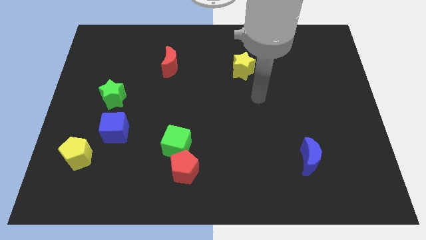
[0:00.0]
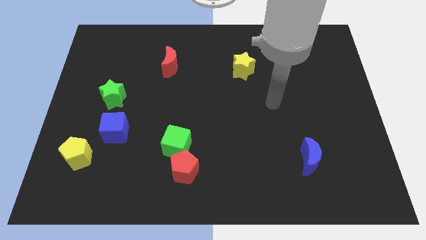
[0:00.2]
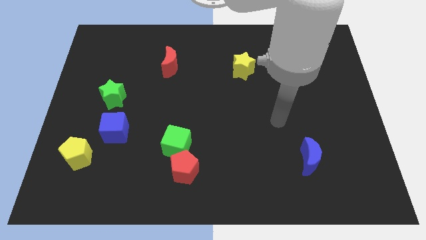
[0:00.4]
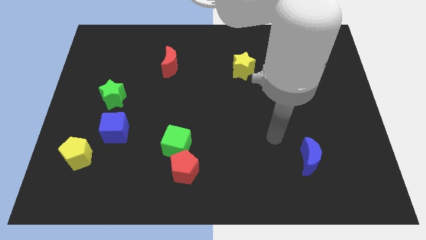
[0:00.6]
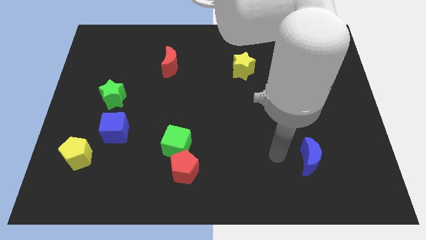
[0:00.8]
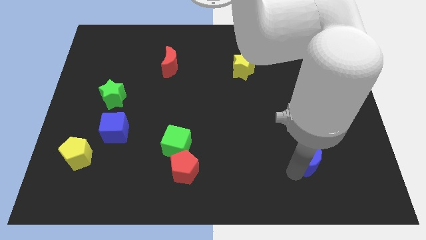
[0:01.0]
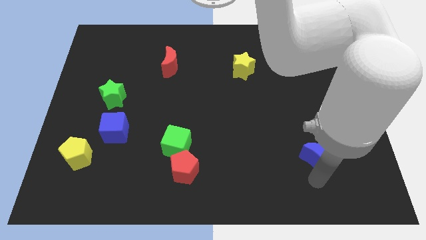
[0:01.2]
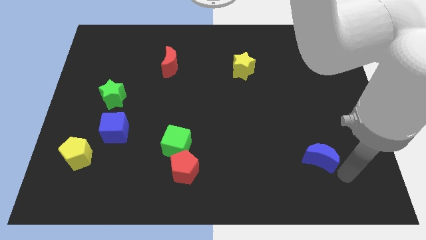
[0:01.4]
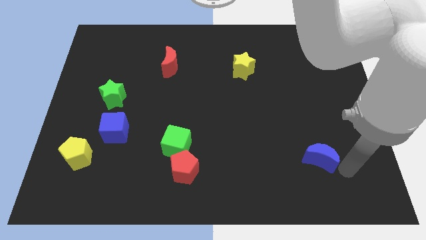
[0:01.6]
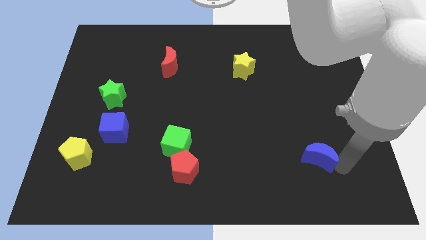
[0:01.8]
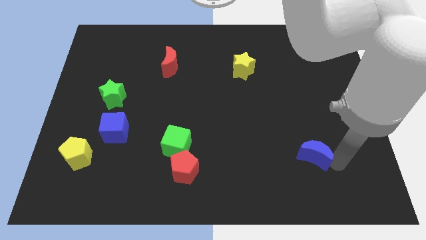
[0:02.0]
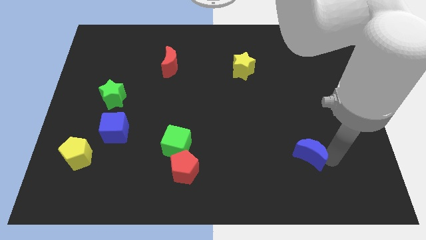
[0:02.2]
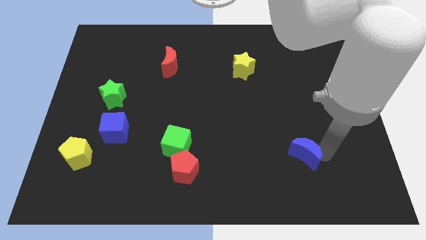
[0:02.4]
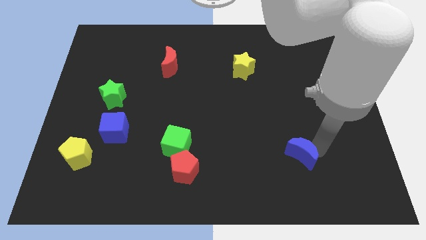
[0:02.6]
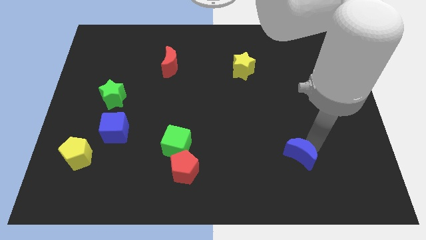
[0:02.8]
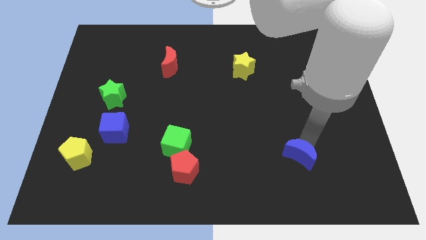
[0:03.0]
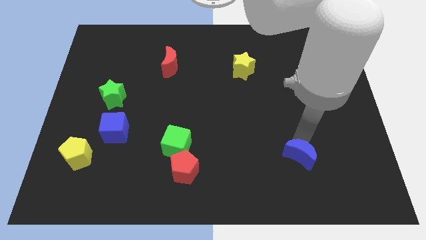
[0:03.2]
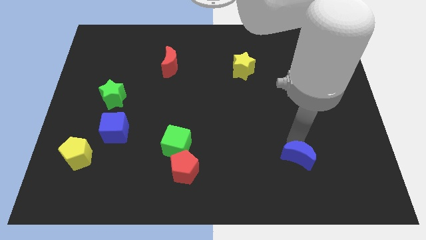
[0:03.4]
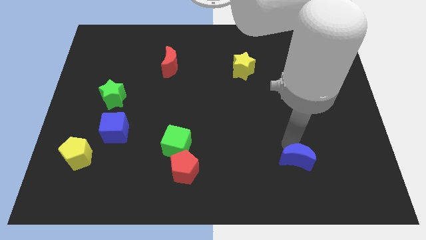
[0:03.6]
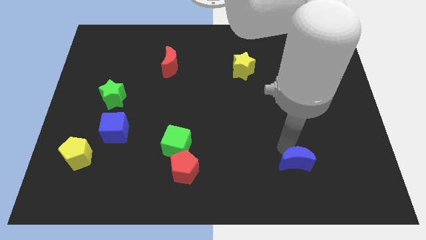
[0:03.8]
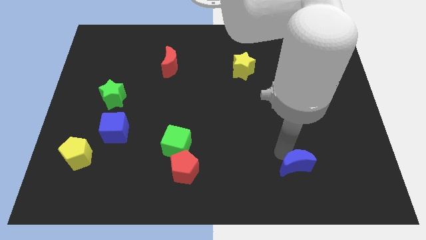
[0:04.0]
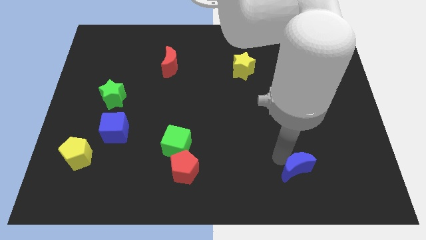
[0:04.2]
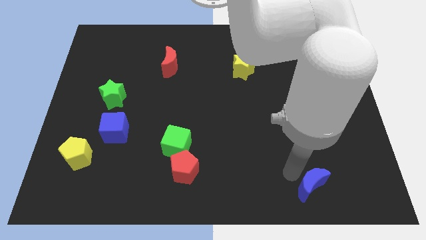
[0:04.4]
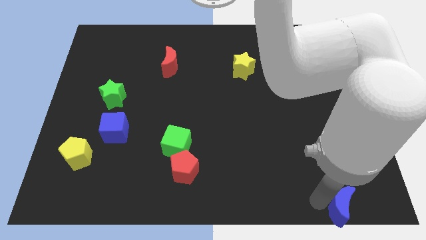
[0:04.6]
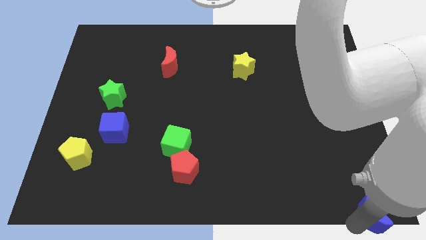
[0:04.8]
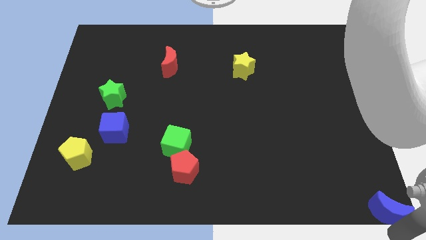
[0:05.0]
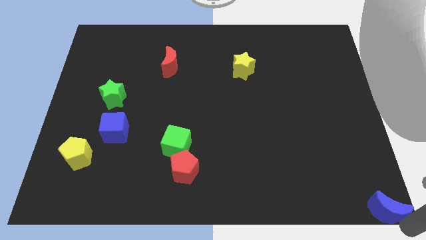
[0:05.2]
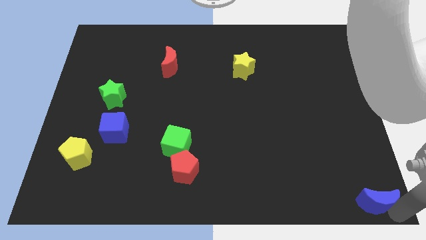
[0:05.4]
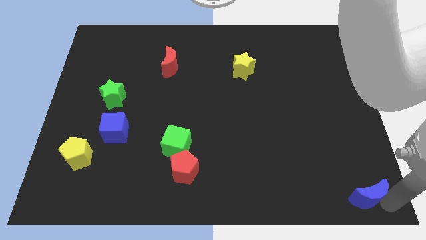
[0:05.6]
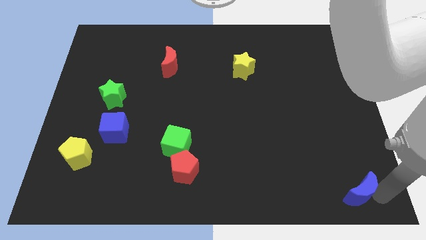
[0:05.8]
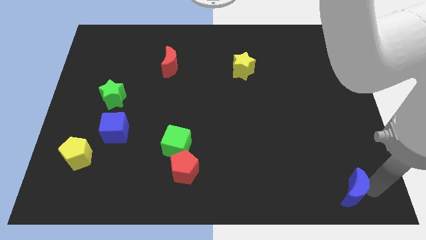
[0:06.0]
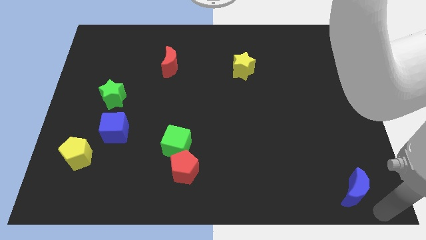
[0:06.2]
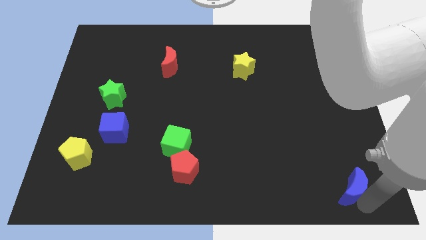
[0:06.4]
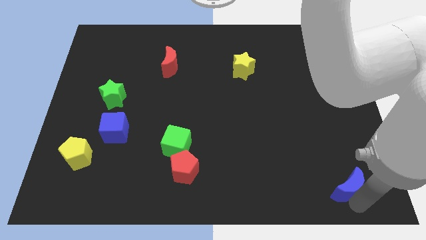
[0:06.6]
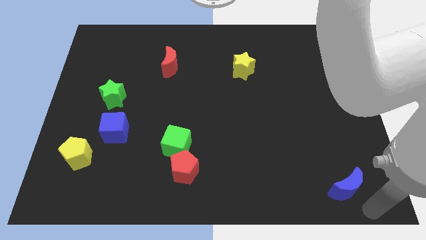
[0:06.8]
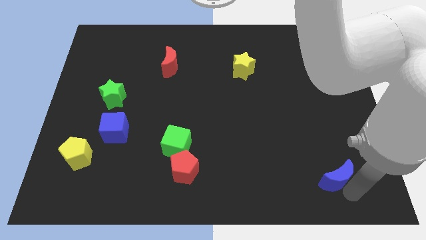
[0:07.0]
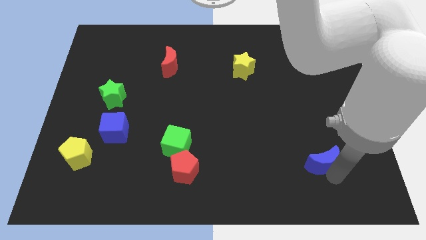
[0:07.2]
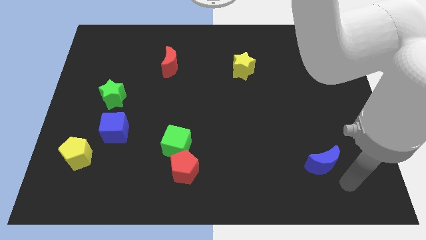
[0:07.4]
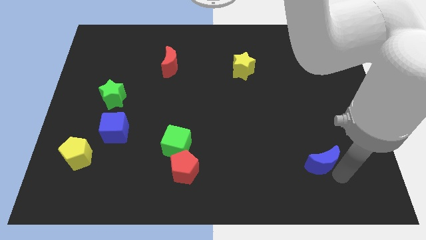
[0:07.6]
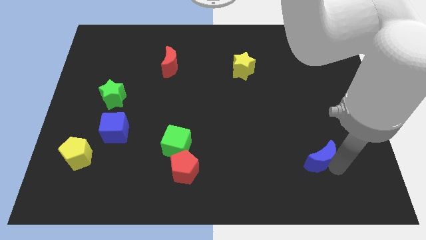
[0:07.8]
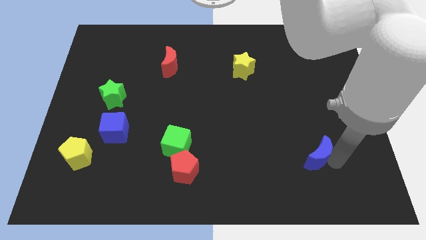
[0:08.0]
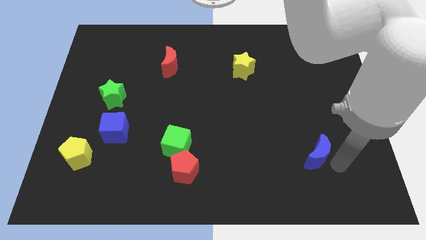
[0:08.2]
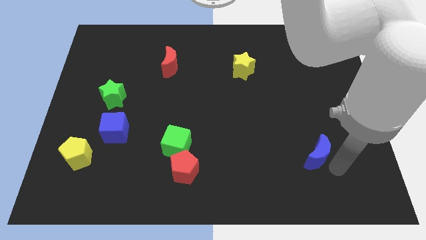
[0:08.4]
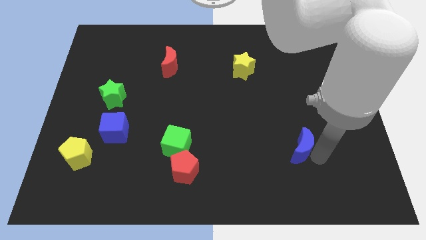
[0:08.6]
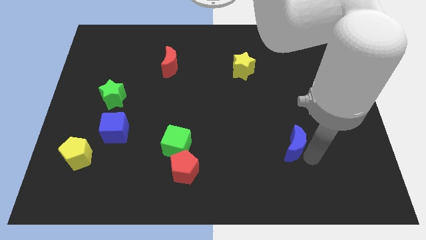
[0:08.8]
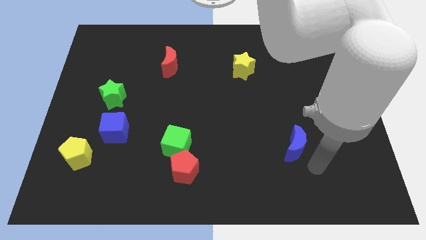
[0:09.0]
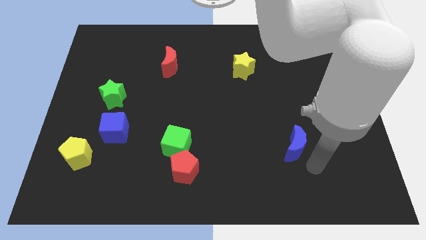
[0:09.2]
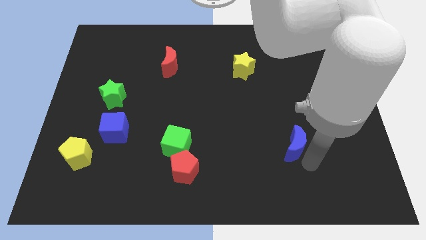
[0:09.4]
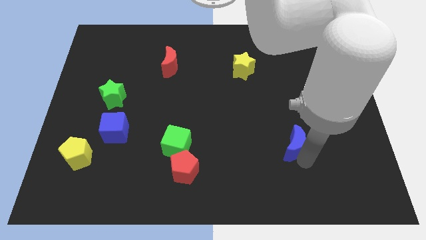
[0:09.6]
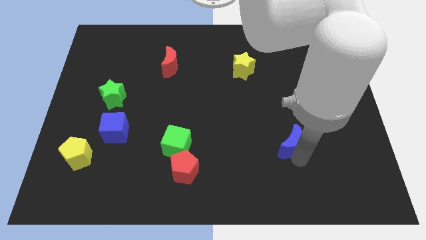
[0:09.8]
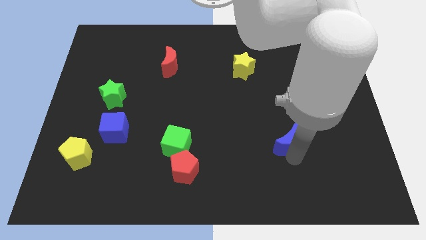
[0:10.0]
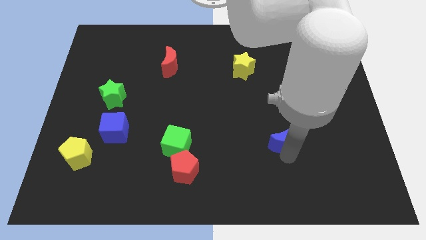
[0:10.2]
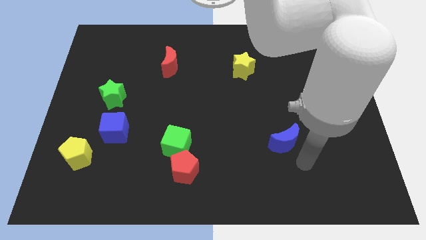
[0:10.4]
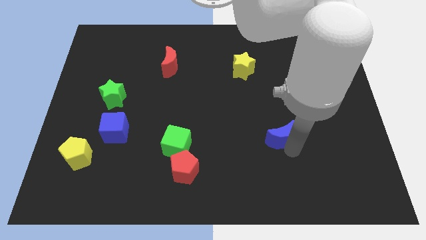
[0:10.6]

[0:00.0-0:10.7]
slide the blue moon a little bit diagonally up and to the left

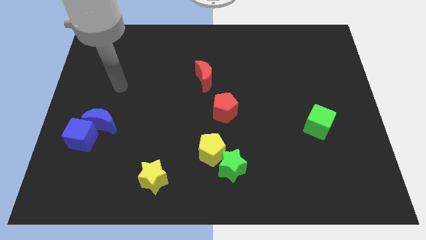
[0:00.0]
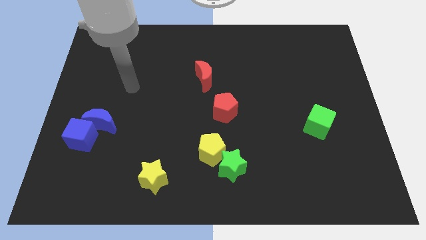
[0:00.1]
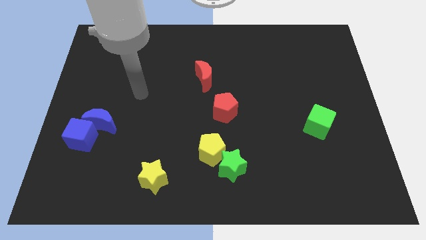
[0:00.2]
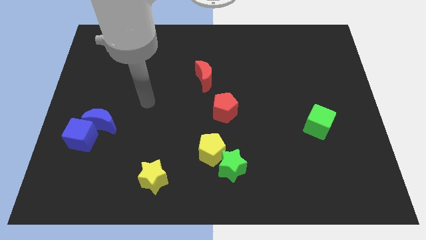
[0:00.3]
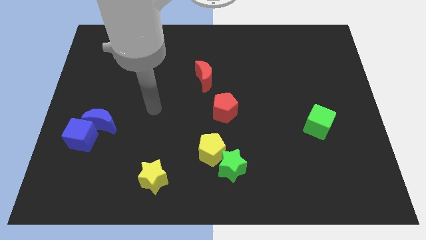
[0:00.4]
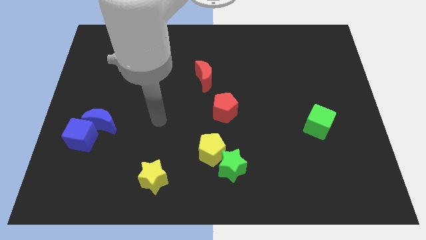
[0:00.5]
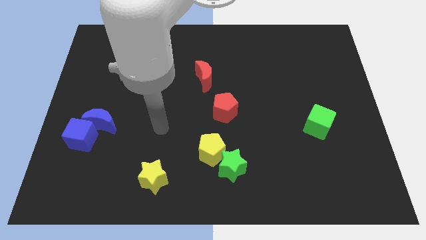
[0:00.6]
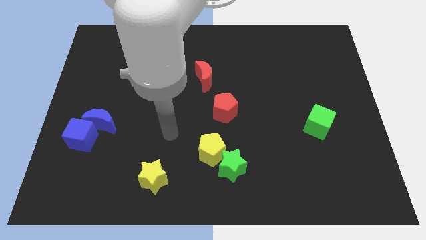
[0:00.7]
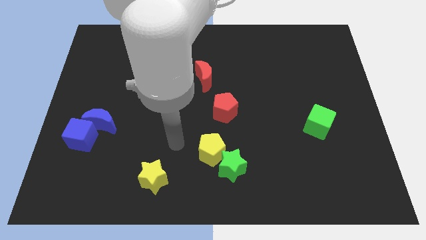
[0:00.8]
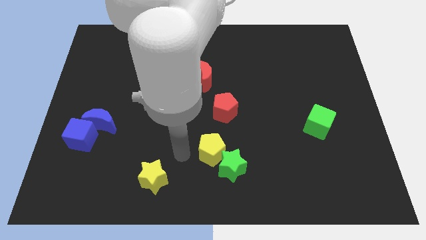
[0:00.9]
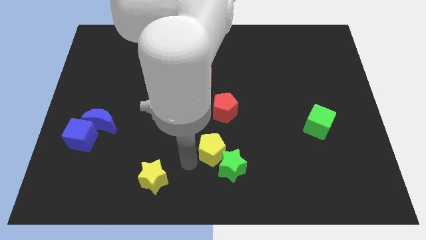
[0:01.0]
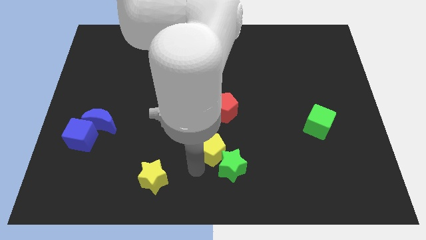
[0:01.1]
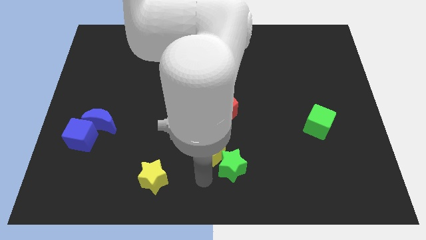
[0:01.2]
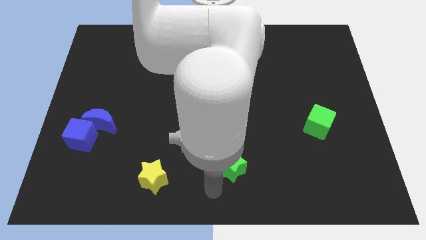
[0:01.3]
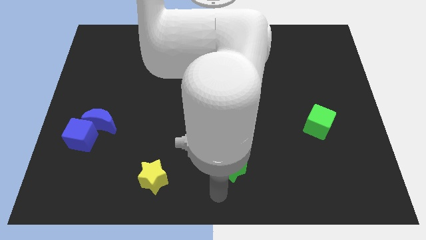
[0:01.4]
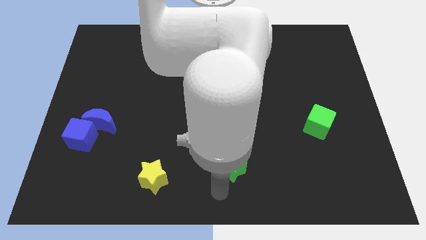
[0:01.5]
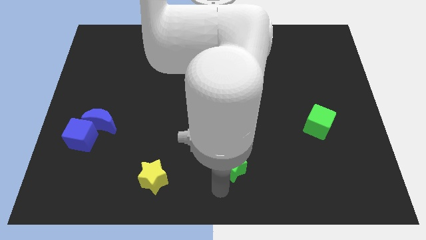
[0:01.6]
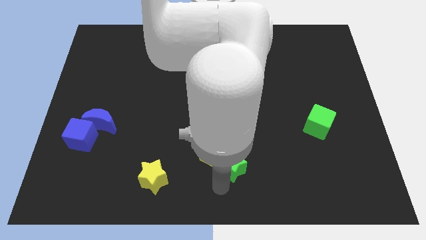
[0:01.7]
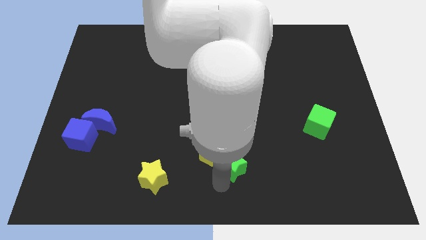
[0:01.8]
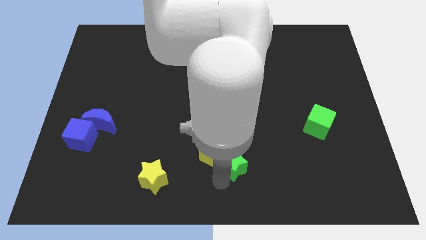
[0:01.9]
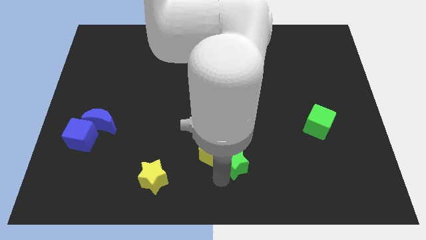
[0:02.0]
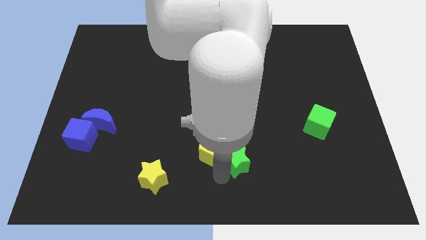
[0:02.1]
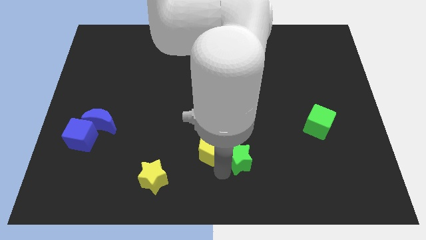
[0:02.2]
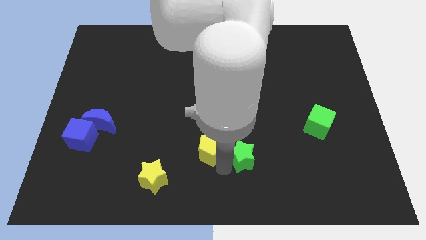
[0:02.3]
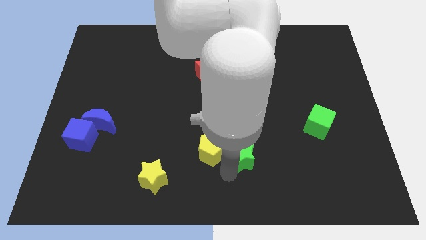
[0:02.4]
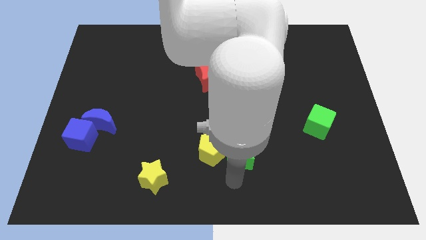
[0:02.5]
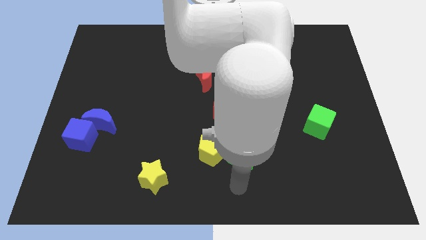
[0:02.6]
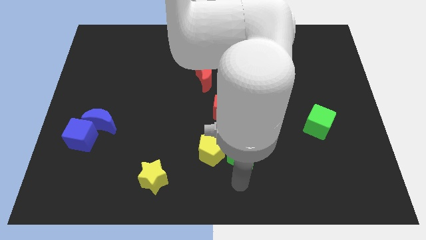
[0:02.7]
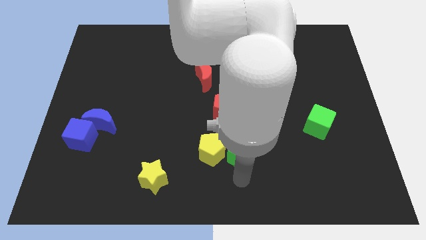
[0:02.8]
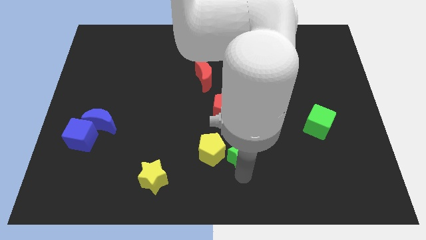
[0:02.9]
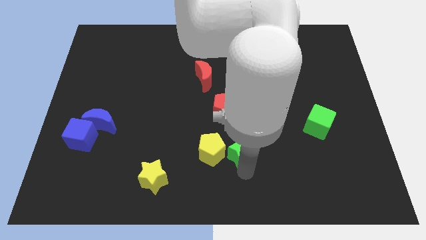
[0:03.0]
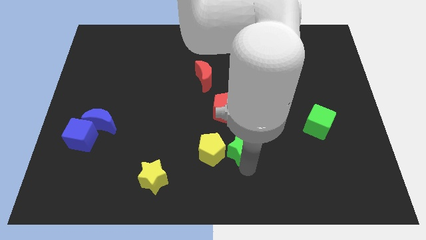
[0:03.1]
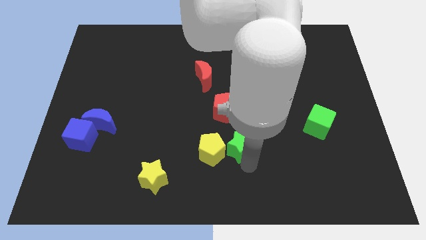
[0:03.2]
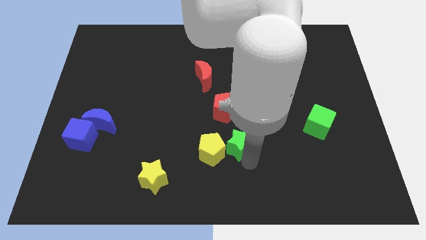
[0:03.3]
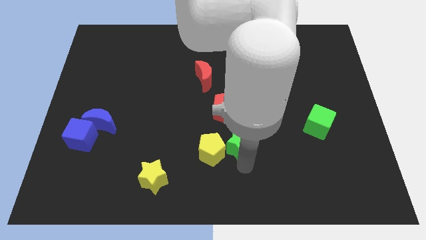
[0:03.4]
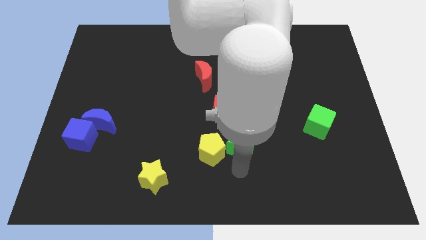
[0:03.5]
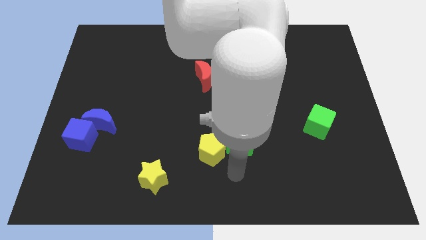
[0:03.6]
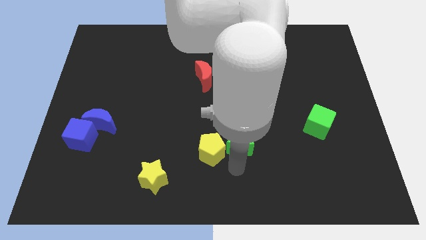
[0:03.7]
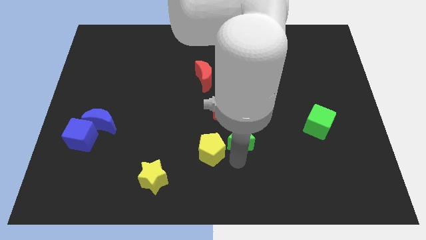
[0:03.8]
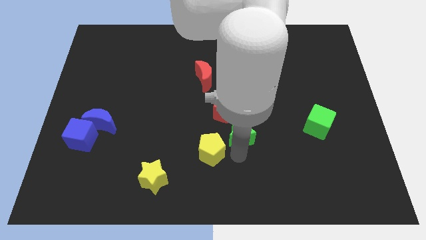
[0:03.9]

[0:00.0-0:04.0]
slightly slide the green star up
